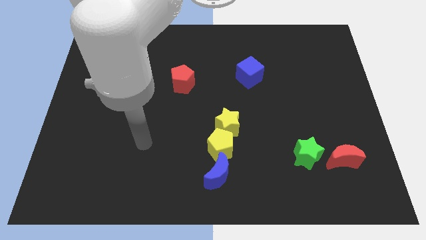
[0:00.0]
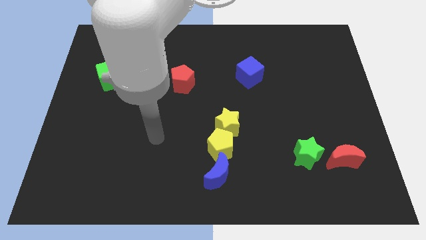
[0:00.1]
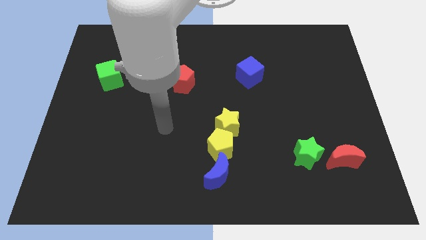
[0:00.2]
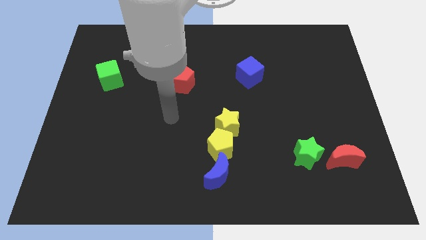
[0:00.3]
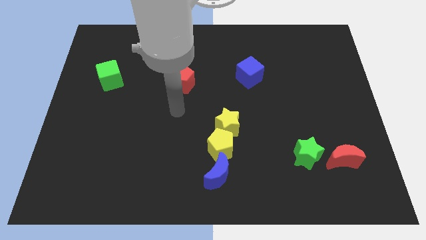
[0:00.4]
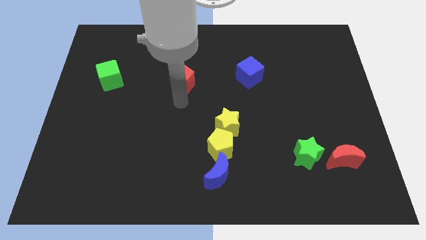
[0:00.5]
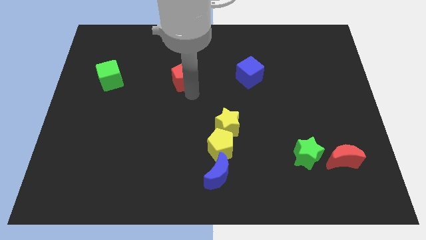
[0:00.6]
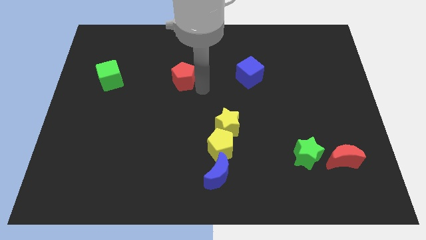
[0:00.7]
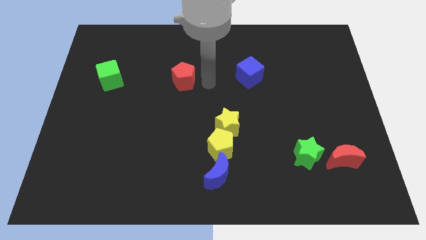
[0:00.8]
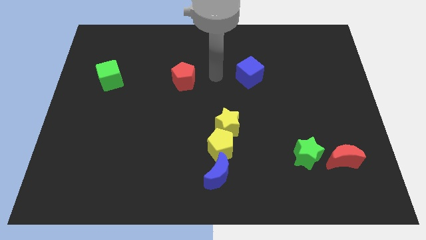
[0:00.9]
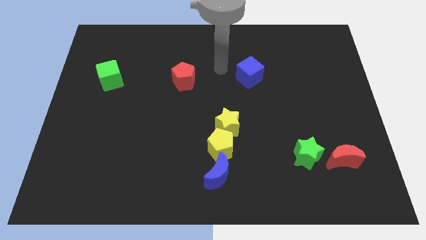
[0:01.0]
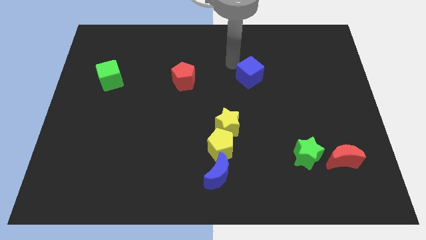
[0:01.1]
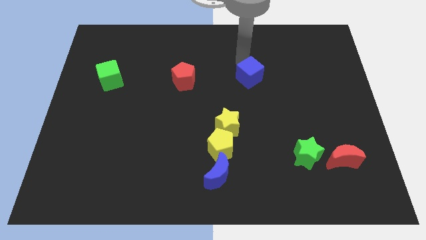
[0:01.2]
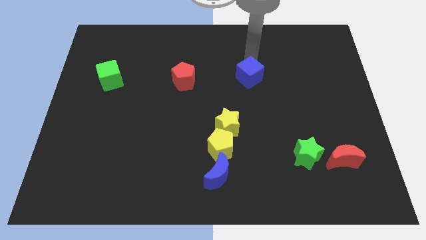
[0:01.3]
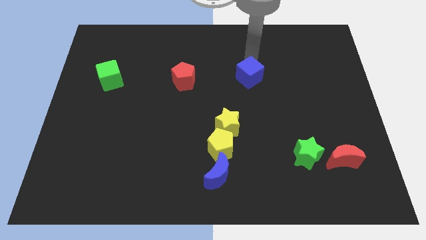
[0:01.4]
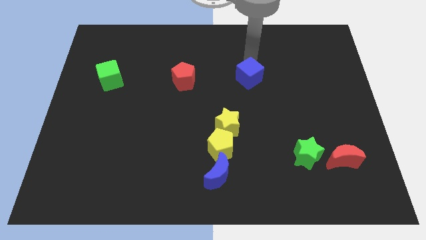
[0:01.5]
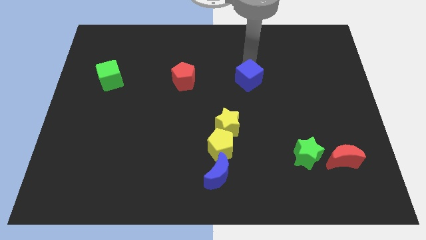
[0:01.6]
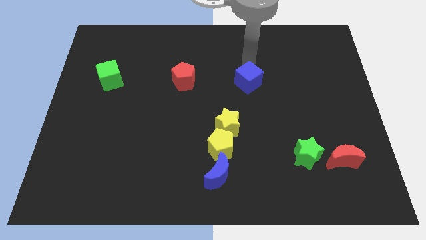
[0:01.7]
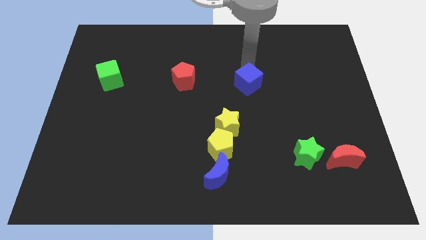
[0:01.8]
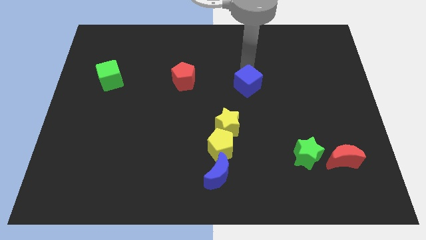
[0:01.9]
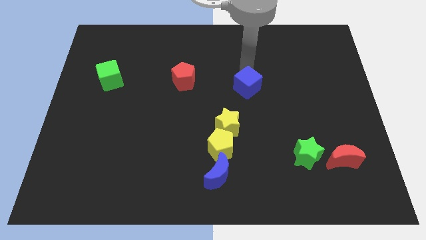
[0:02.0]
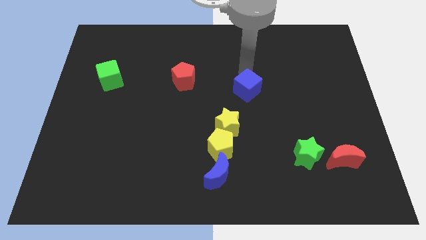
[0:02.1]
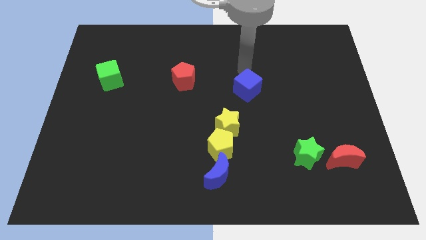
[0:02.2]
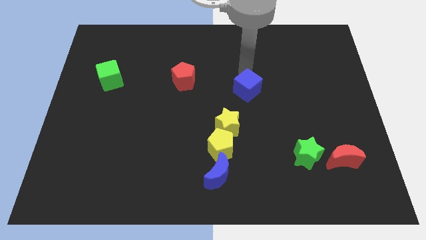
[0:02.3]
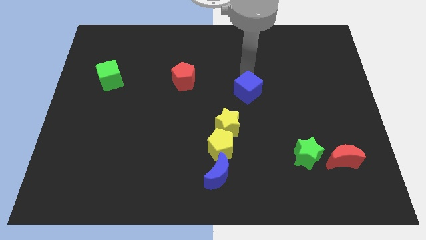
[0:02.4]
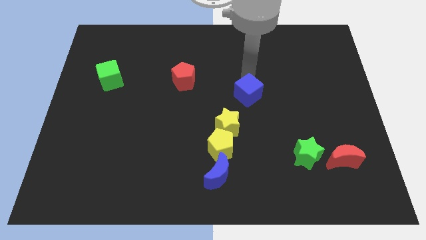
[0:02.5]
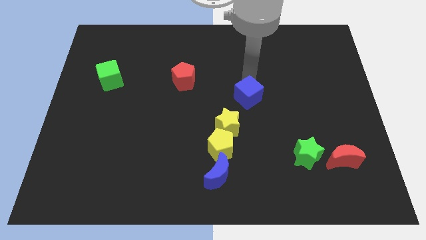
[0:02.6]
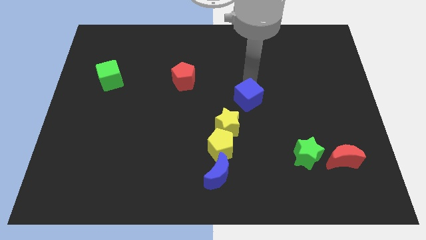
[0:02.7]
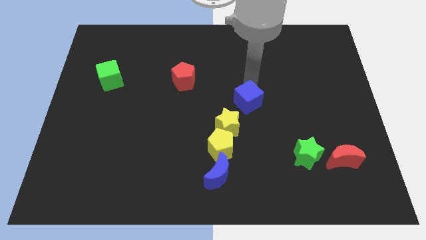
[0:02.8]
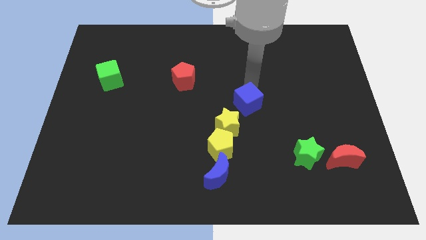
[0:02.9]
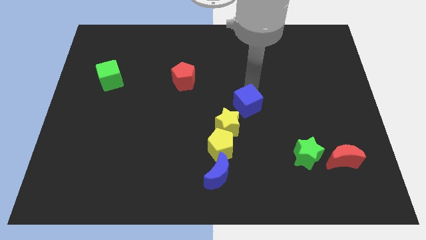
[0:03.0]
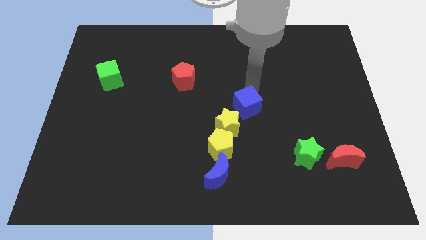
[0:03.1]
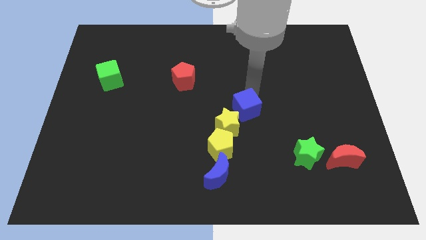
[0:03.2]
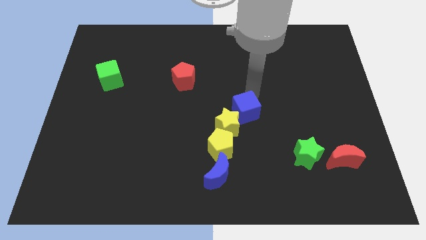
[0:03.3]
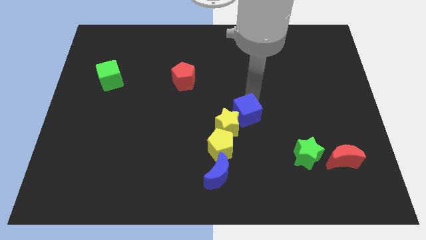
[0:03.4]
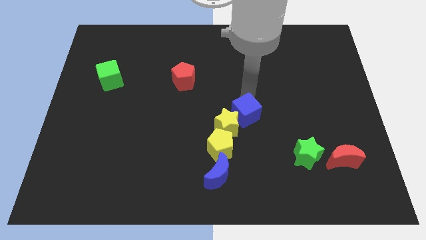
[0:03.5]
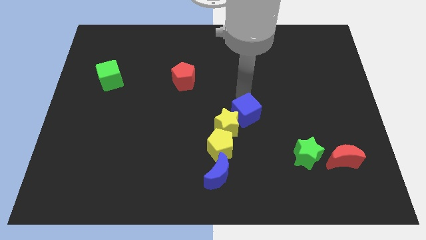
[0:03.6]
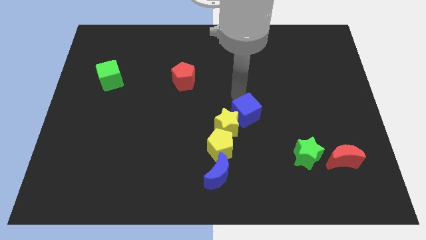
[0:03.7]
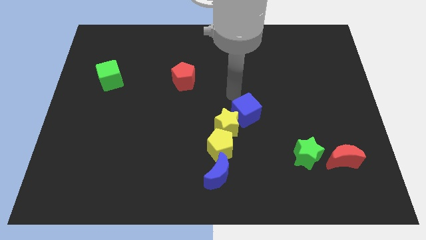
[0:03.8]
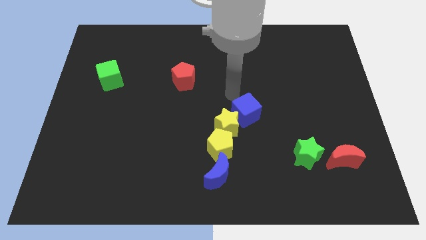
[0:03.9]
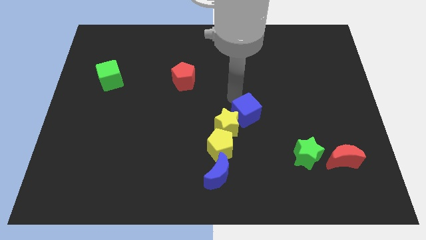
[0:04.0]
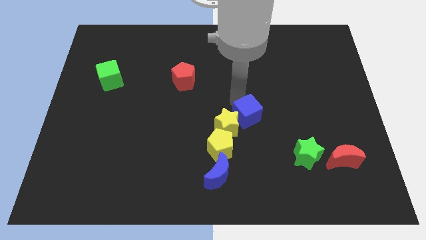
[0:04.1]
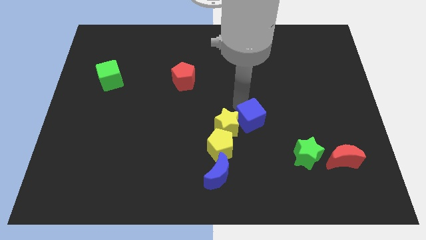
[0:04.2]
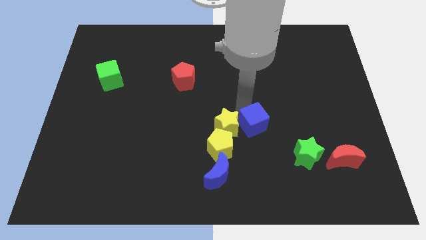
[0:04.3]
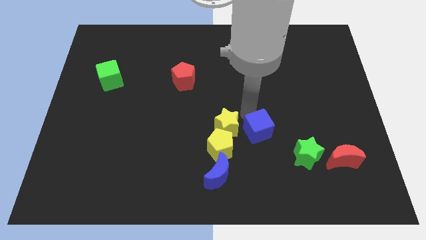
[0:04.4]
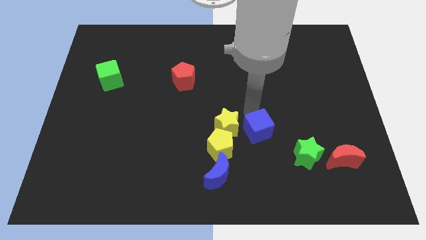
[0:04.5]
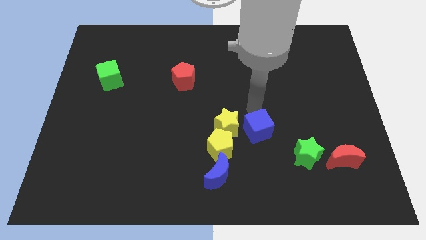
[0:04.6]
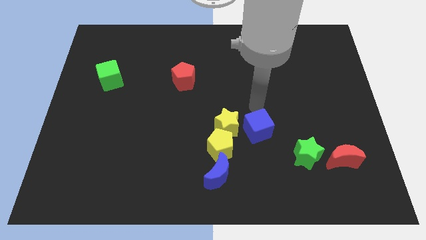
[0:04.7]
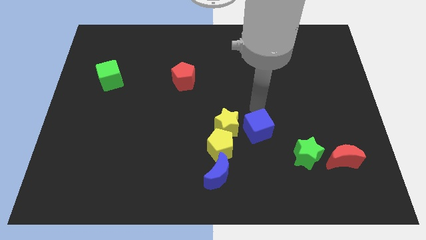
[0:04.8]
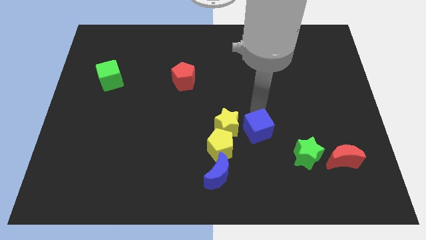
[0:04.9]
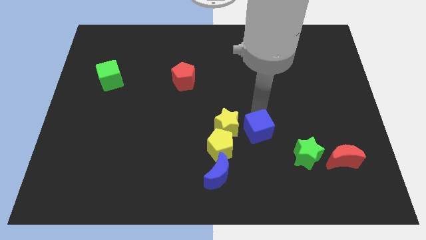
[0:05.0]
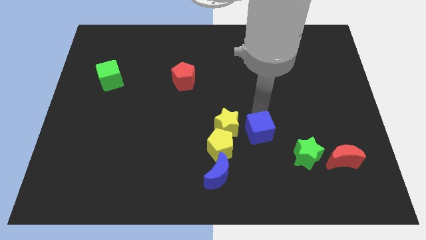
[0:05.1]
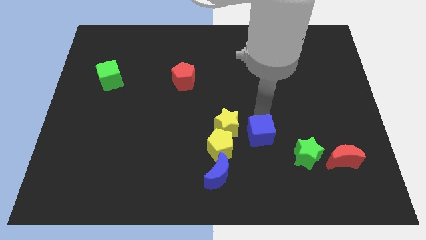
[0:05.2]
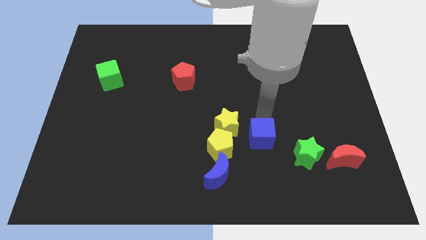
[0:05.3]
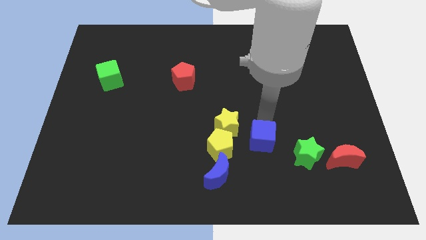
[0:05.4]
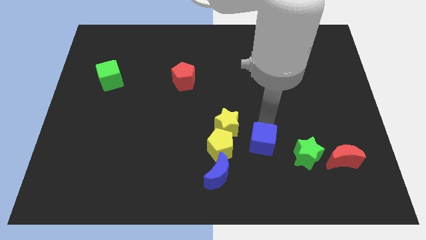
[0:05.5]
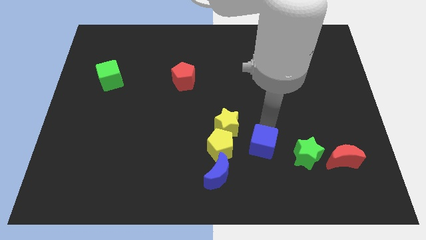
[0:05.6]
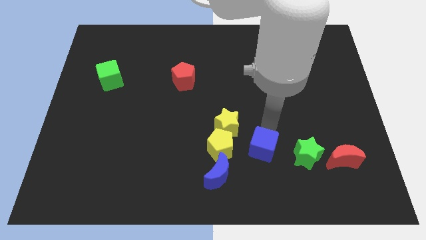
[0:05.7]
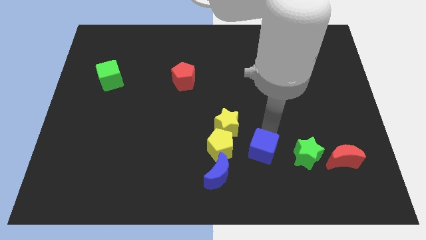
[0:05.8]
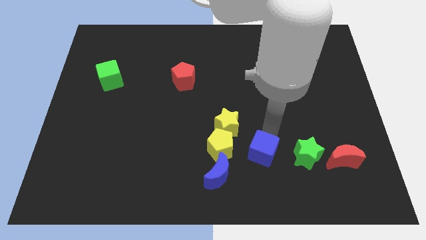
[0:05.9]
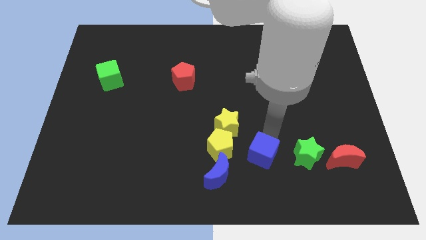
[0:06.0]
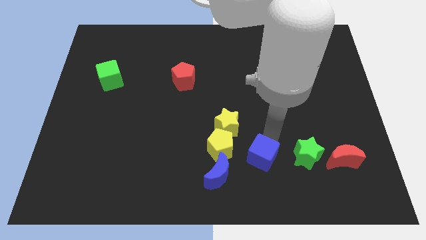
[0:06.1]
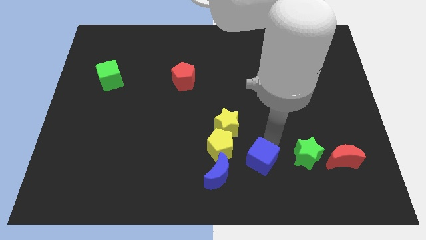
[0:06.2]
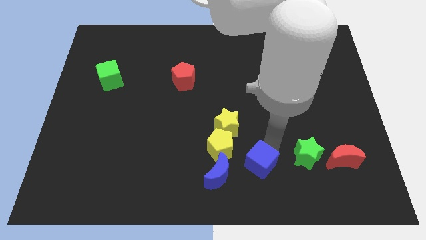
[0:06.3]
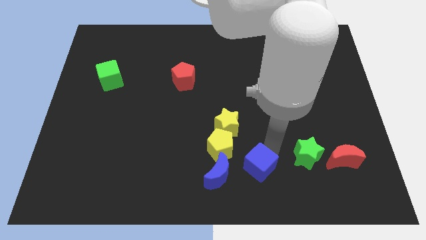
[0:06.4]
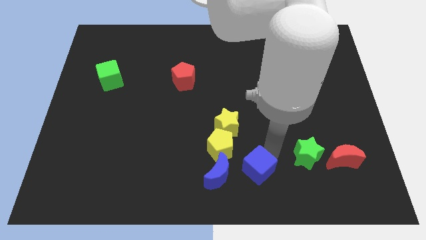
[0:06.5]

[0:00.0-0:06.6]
push the blue cube to the bottom

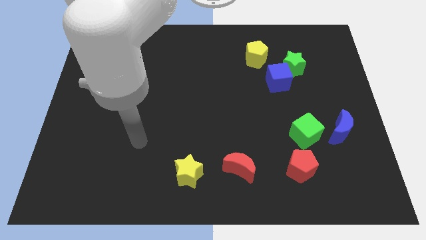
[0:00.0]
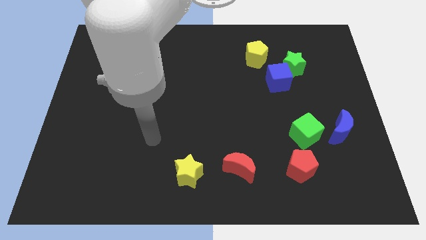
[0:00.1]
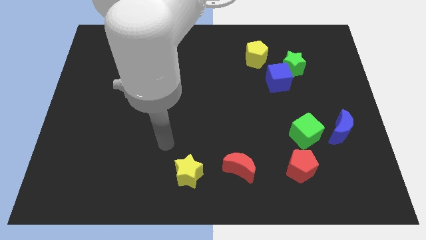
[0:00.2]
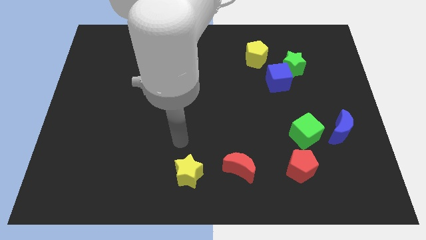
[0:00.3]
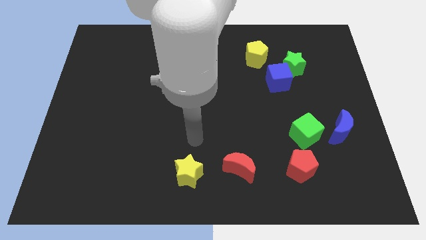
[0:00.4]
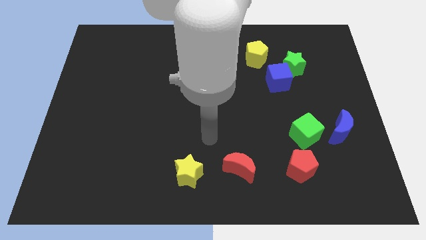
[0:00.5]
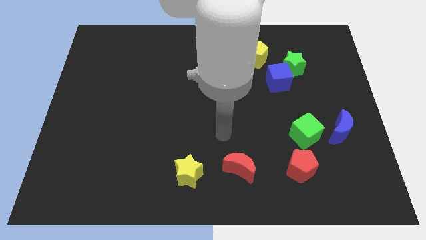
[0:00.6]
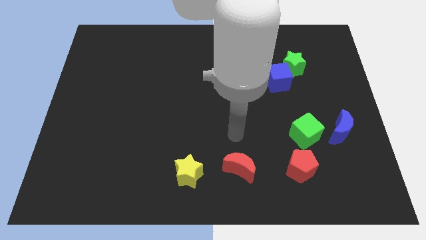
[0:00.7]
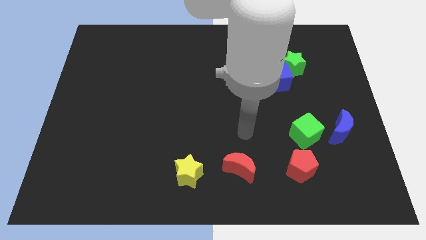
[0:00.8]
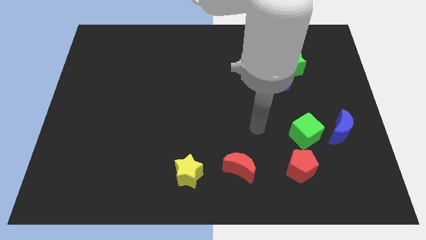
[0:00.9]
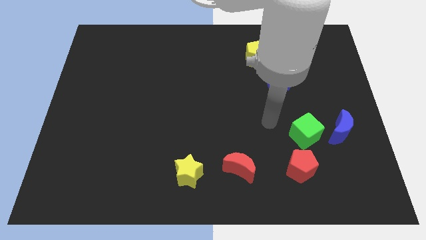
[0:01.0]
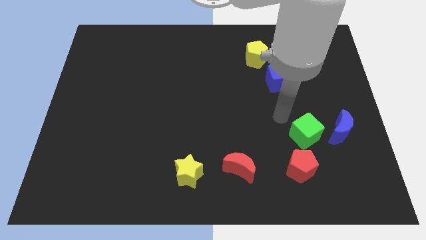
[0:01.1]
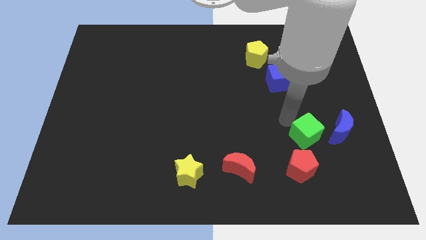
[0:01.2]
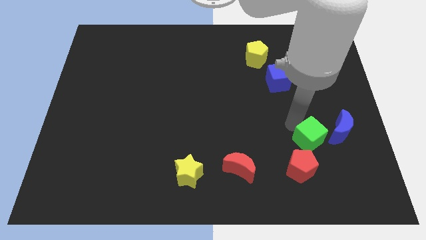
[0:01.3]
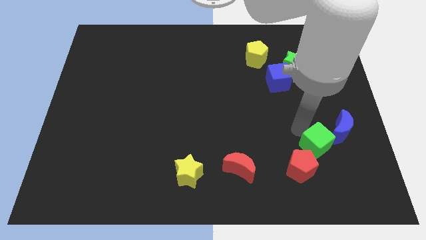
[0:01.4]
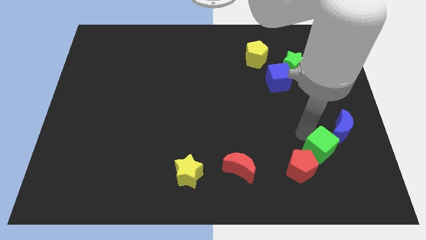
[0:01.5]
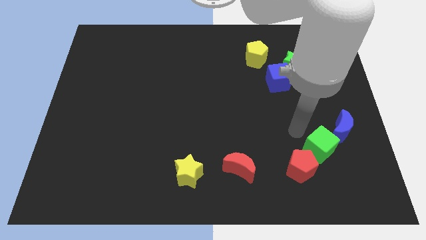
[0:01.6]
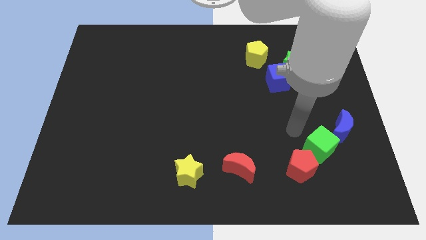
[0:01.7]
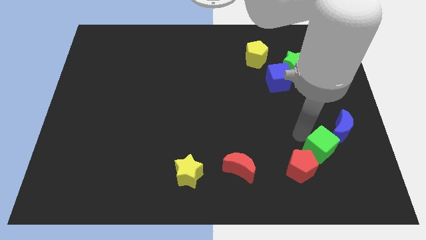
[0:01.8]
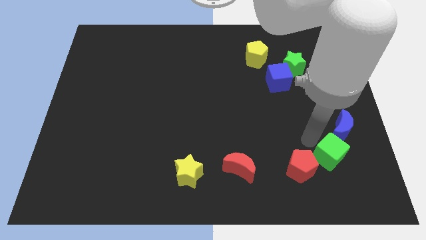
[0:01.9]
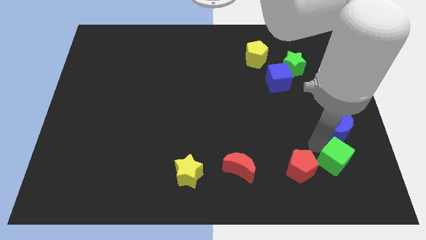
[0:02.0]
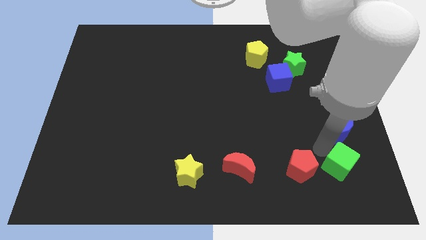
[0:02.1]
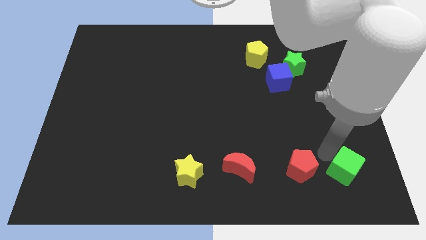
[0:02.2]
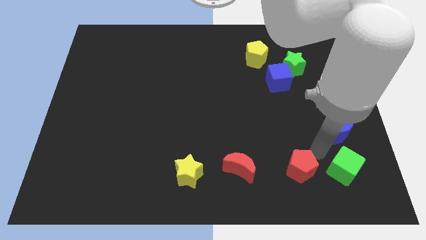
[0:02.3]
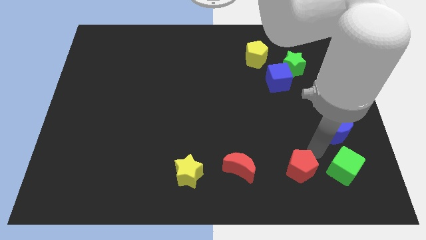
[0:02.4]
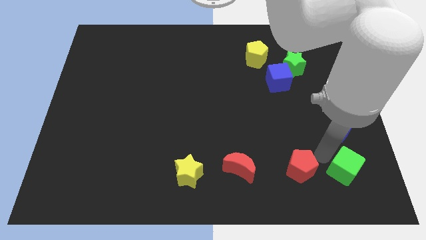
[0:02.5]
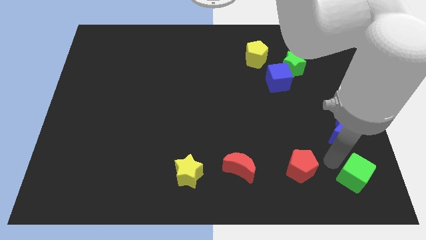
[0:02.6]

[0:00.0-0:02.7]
move the green cube to the bottom right corner
